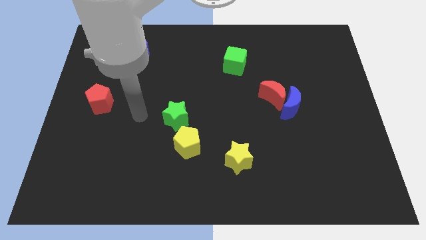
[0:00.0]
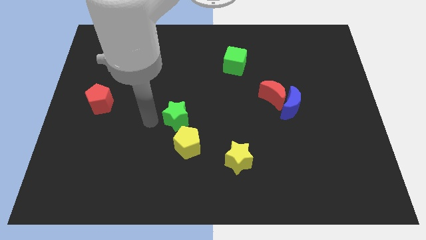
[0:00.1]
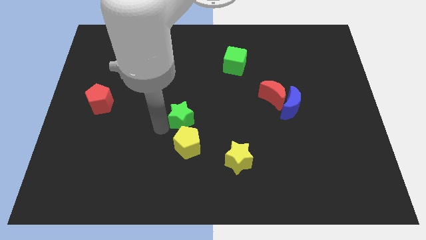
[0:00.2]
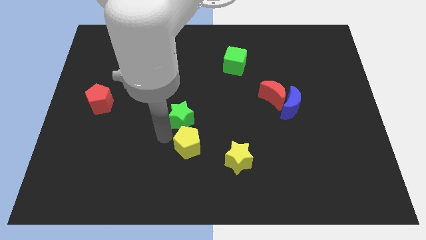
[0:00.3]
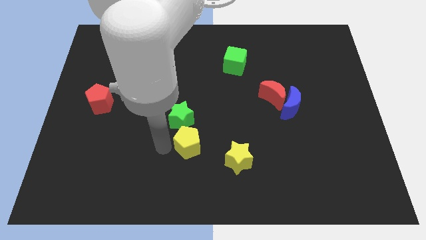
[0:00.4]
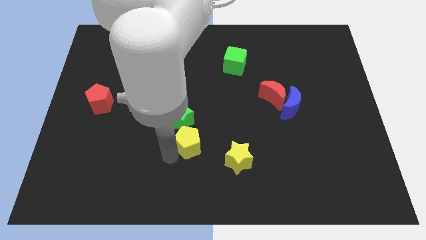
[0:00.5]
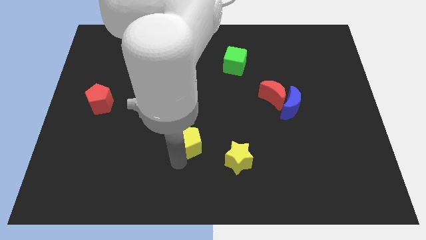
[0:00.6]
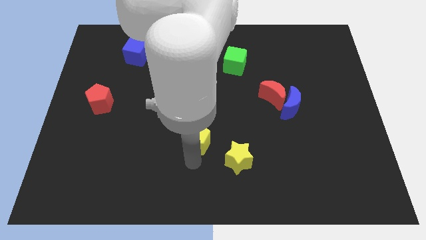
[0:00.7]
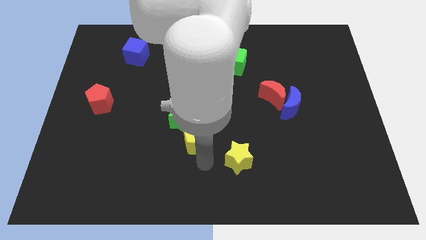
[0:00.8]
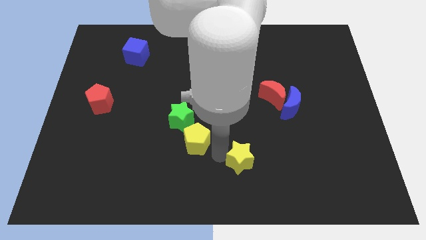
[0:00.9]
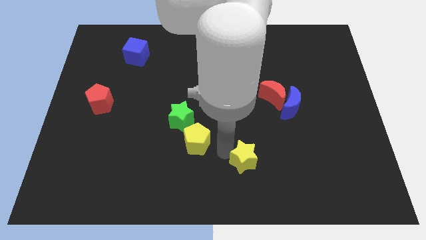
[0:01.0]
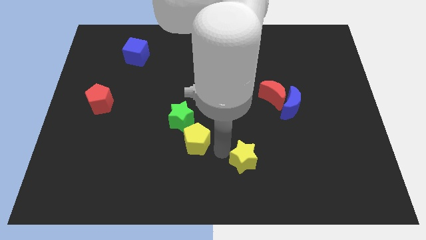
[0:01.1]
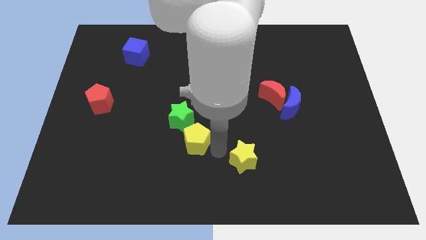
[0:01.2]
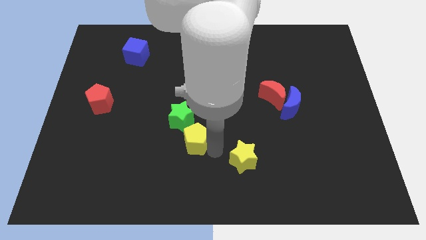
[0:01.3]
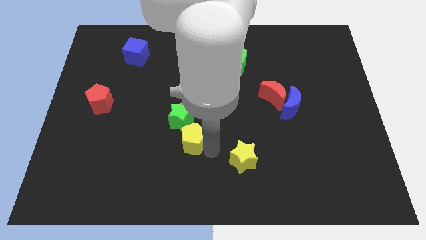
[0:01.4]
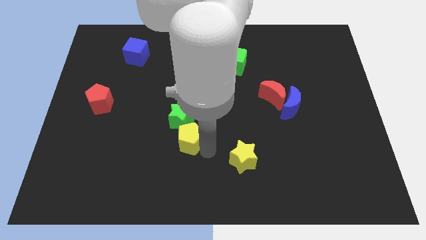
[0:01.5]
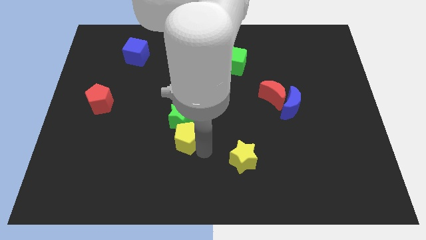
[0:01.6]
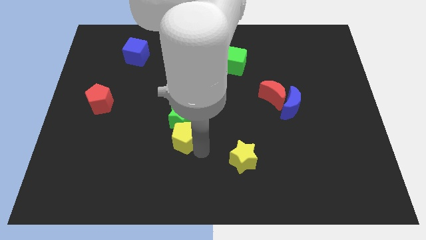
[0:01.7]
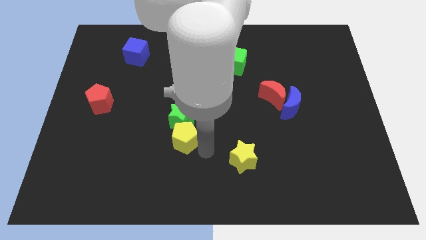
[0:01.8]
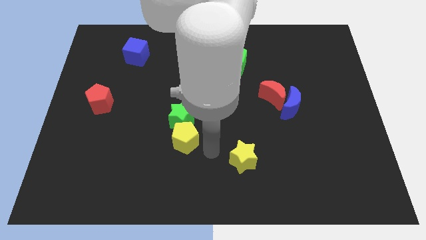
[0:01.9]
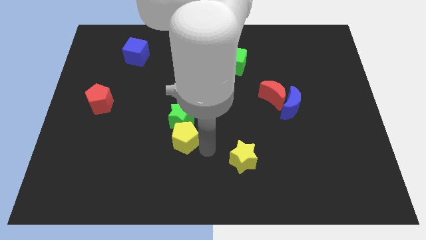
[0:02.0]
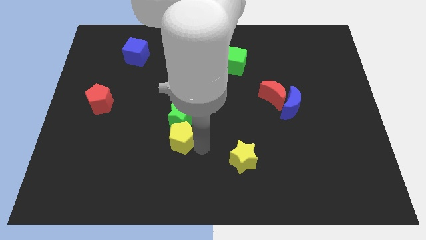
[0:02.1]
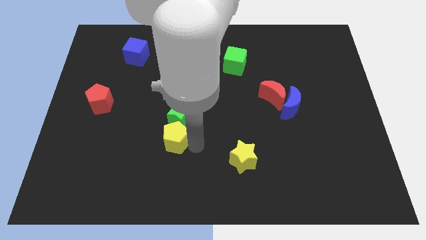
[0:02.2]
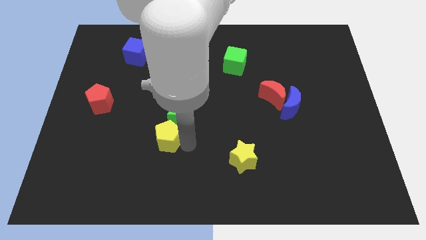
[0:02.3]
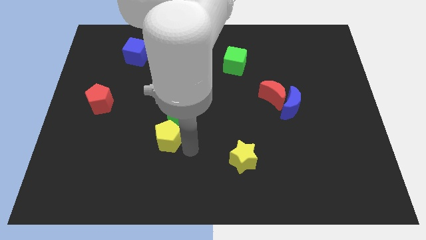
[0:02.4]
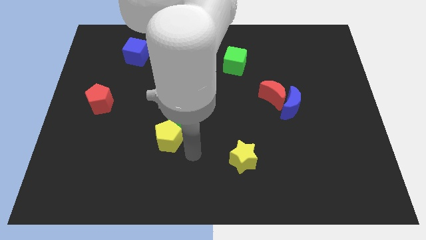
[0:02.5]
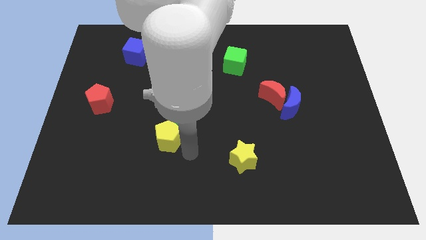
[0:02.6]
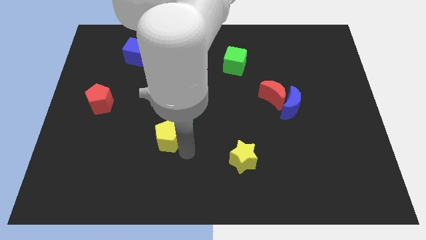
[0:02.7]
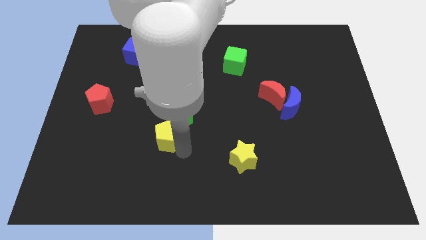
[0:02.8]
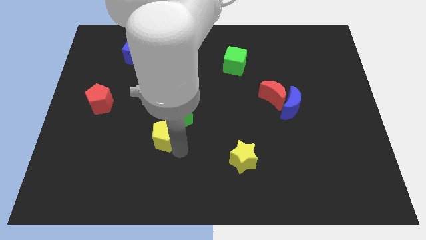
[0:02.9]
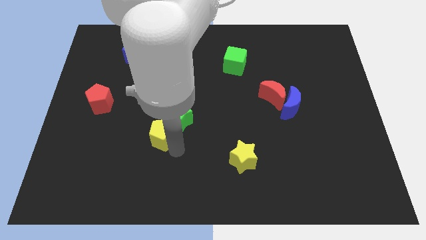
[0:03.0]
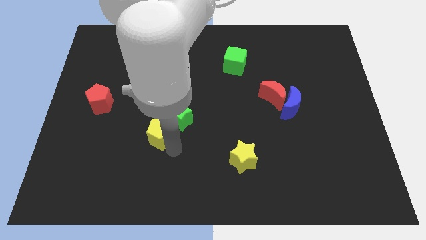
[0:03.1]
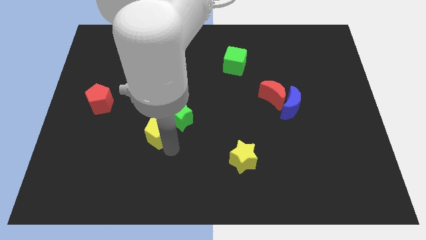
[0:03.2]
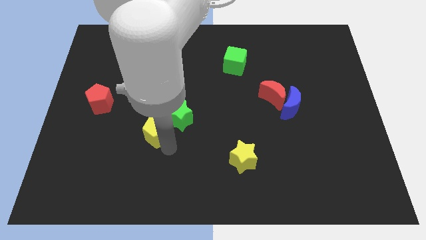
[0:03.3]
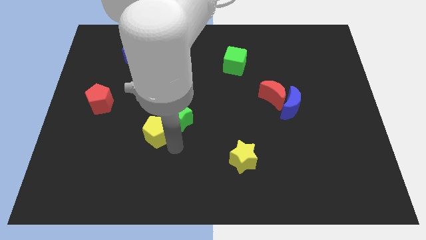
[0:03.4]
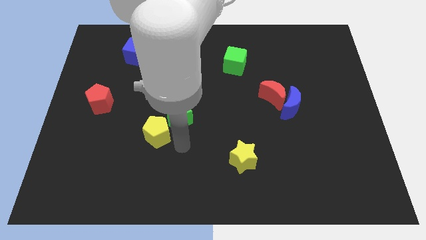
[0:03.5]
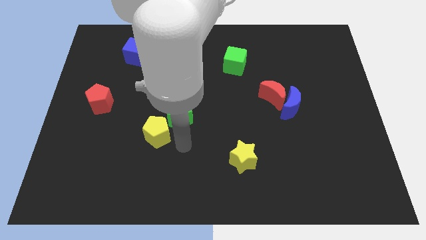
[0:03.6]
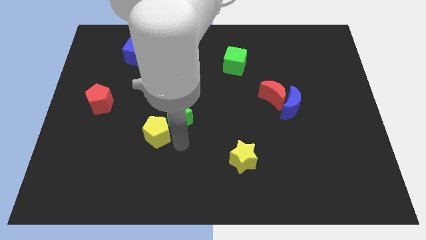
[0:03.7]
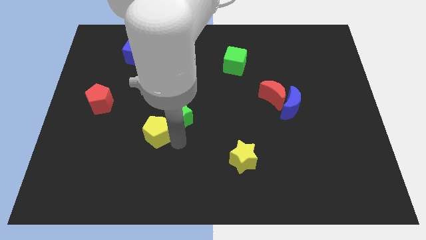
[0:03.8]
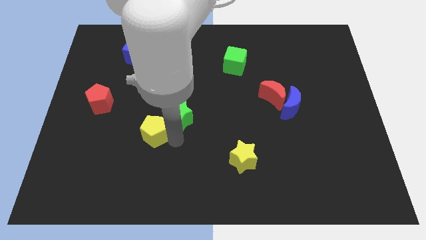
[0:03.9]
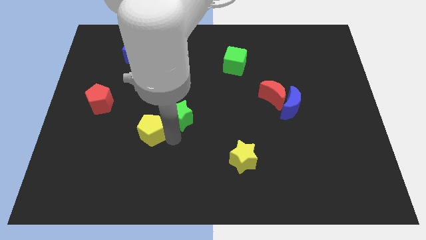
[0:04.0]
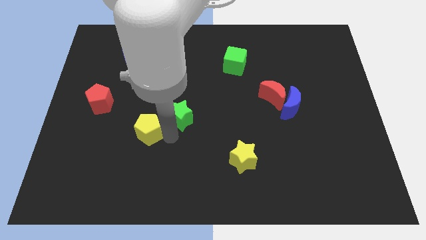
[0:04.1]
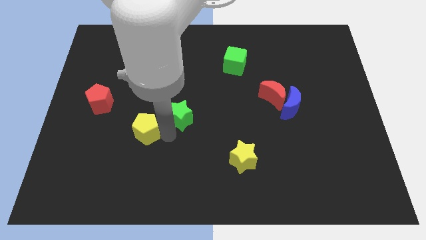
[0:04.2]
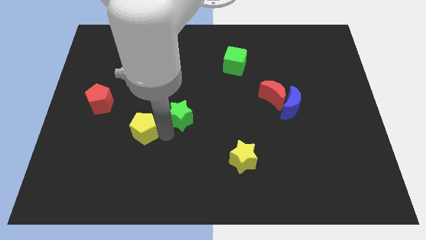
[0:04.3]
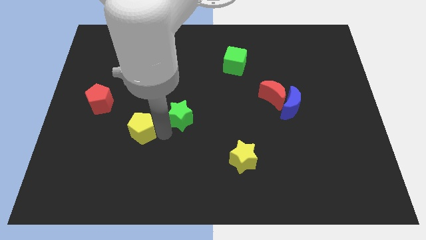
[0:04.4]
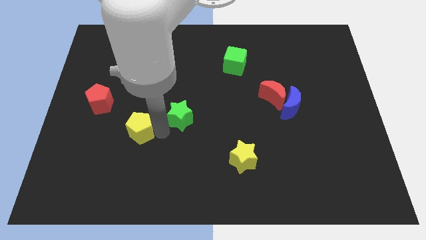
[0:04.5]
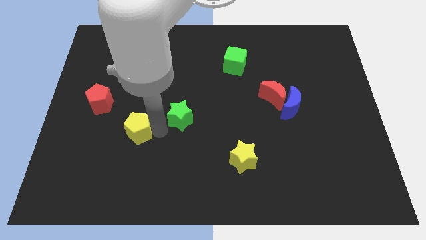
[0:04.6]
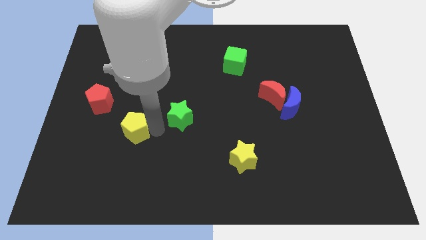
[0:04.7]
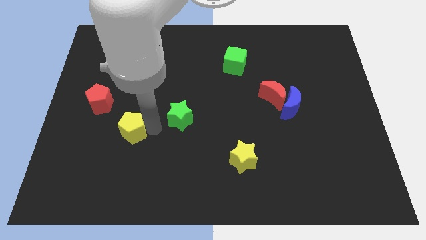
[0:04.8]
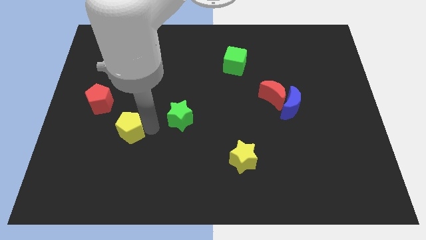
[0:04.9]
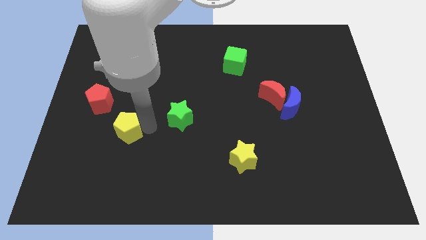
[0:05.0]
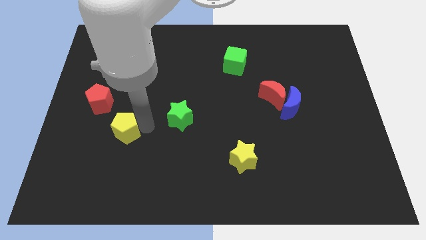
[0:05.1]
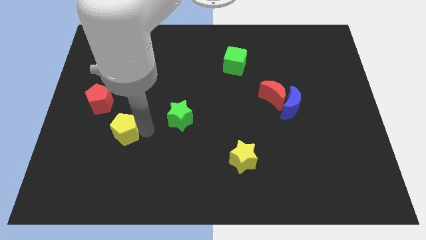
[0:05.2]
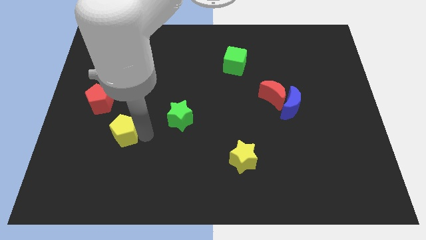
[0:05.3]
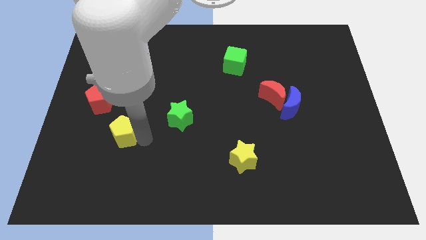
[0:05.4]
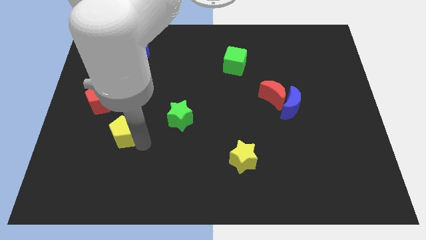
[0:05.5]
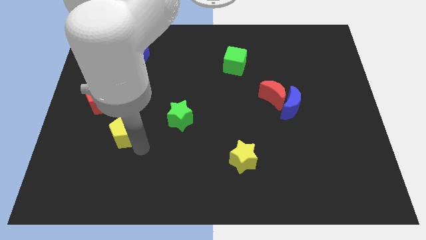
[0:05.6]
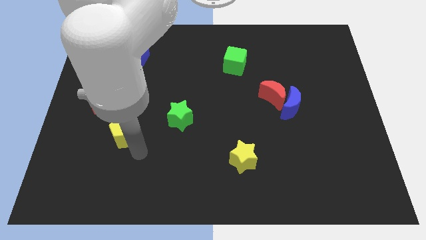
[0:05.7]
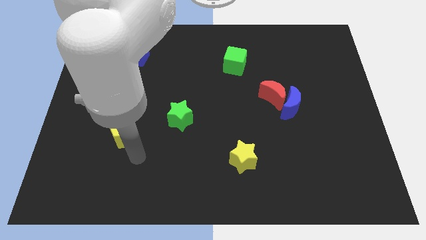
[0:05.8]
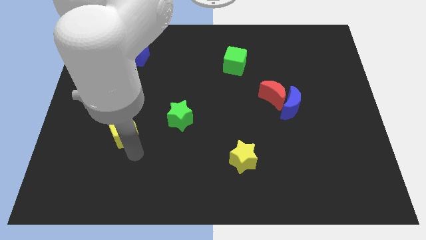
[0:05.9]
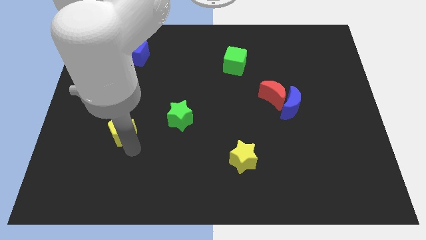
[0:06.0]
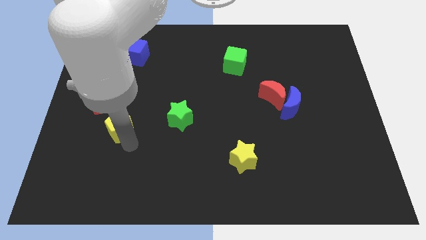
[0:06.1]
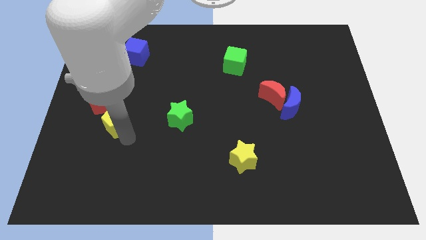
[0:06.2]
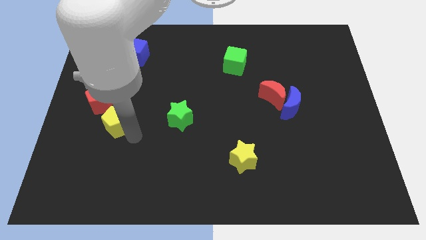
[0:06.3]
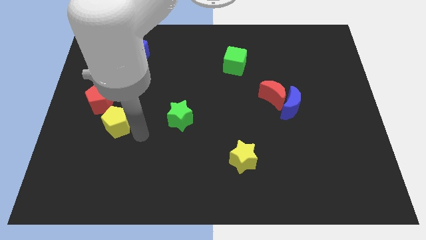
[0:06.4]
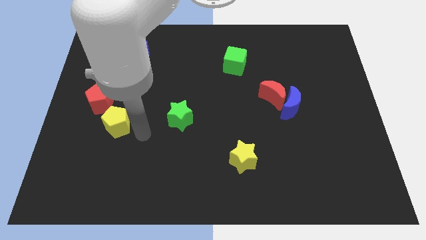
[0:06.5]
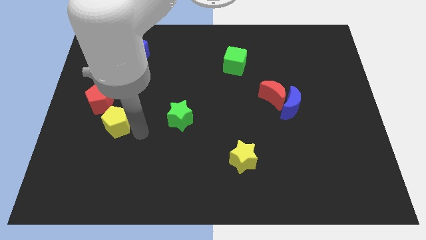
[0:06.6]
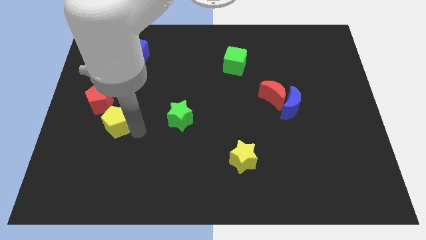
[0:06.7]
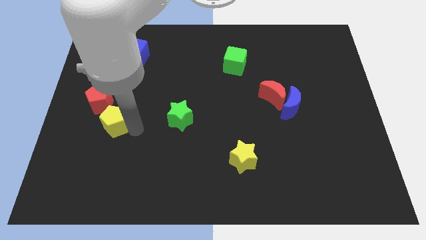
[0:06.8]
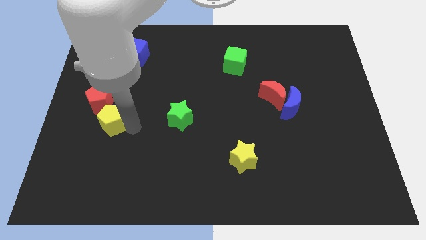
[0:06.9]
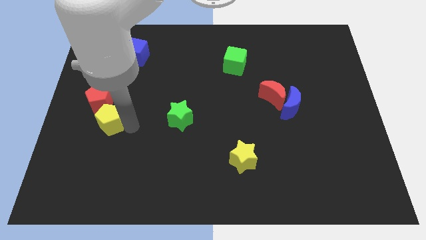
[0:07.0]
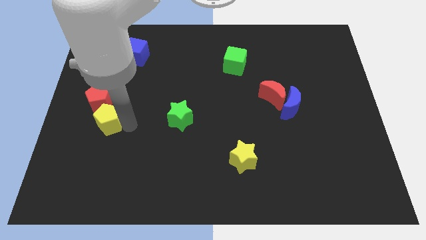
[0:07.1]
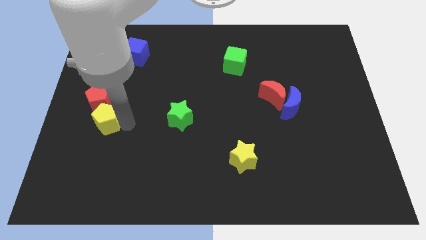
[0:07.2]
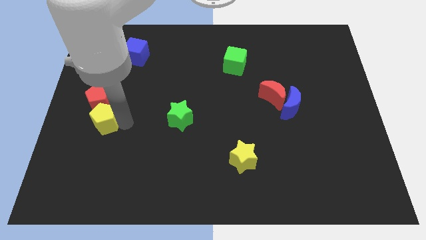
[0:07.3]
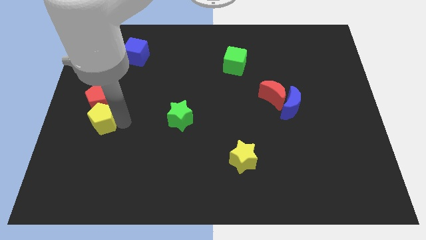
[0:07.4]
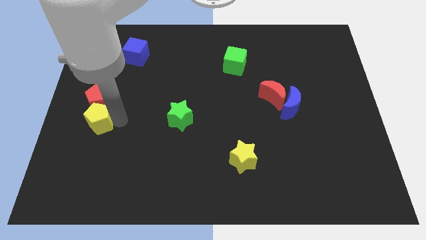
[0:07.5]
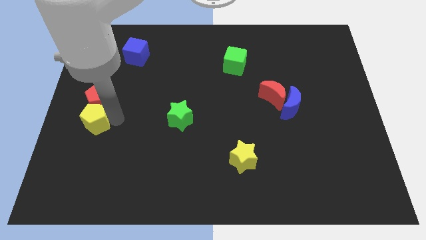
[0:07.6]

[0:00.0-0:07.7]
put the yellow pentagon to the center left
